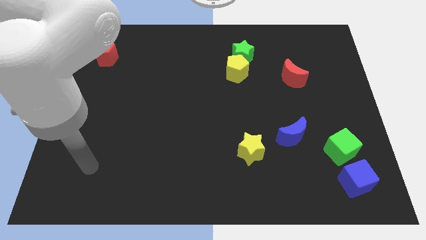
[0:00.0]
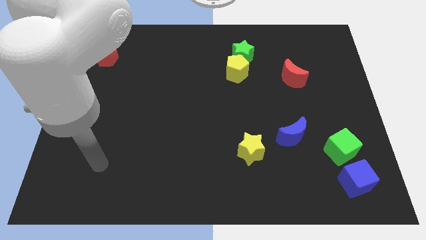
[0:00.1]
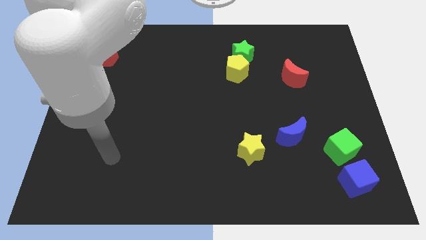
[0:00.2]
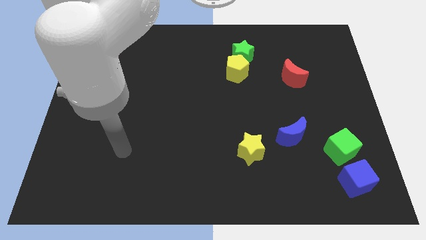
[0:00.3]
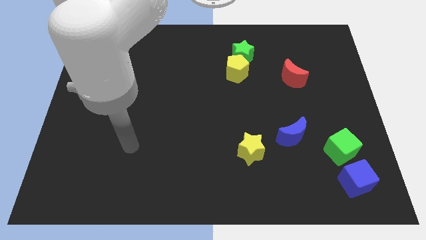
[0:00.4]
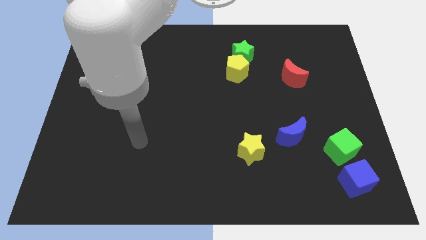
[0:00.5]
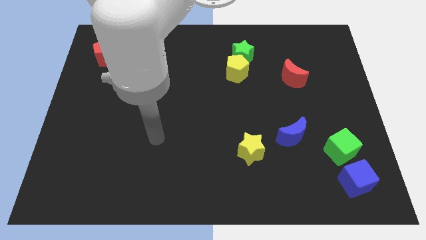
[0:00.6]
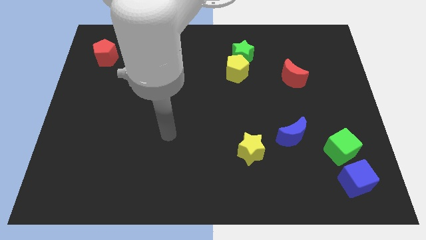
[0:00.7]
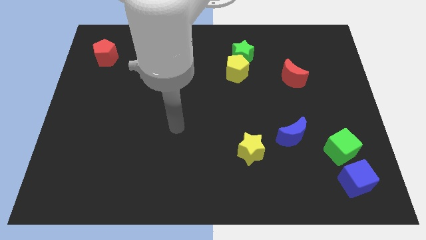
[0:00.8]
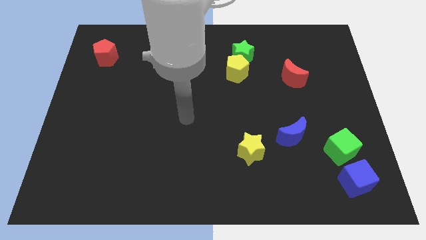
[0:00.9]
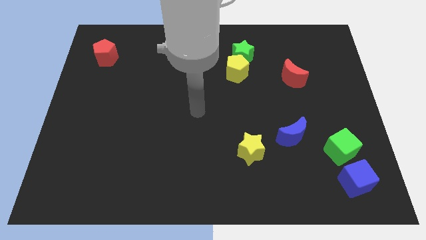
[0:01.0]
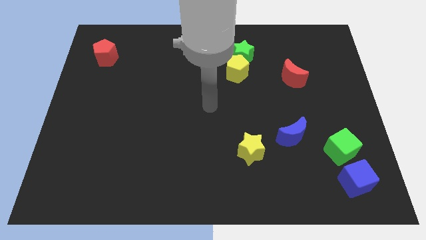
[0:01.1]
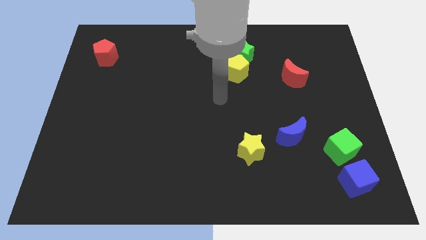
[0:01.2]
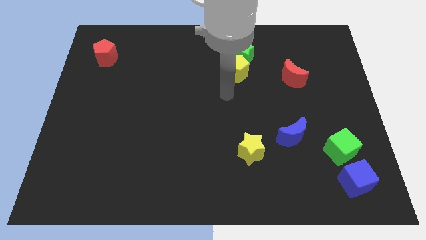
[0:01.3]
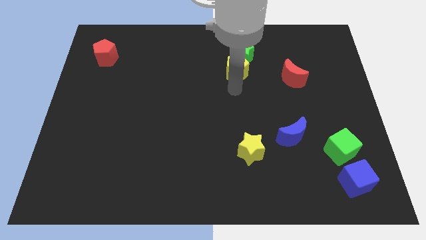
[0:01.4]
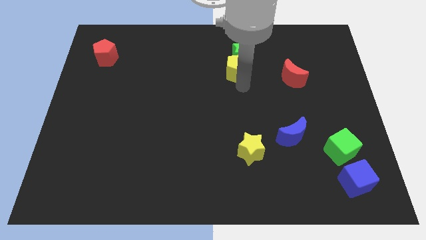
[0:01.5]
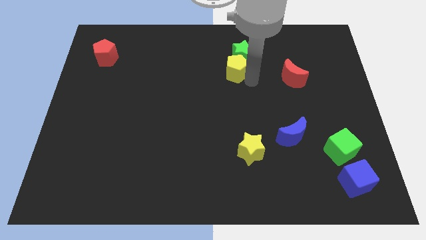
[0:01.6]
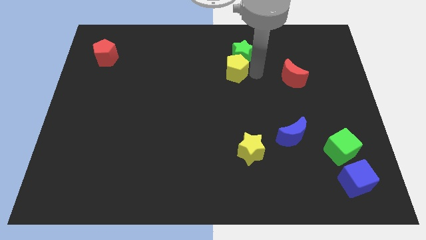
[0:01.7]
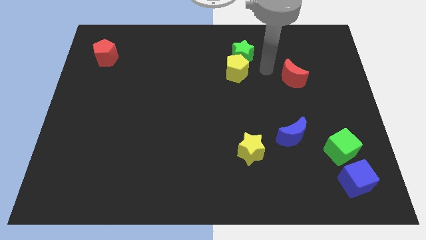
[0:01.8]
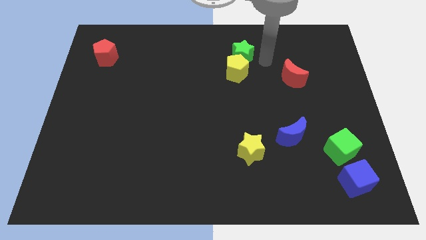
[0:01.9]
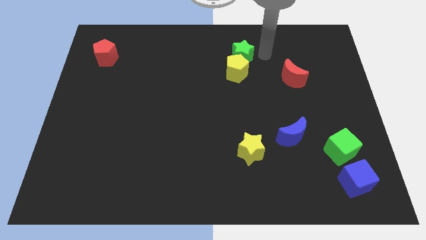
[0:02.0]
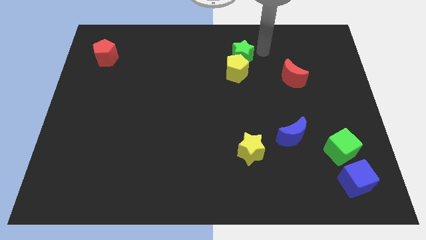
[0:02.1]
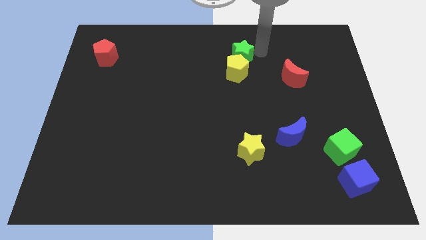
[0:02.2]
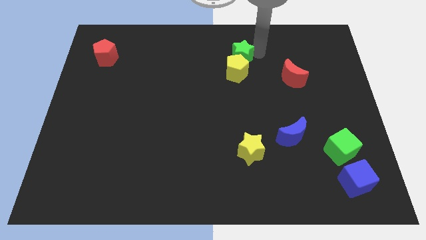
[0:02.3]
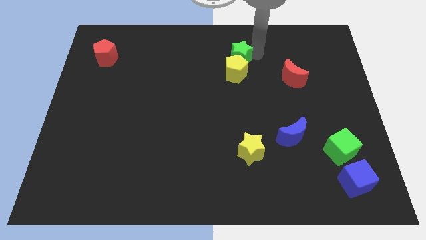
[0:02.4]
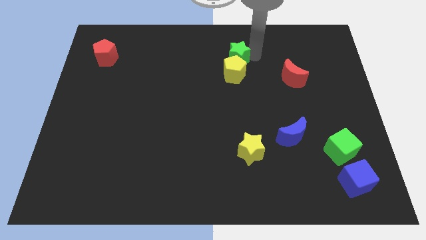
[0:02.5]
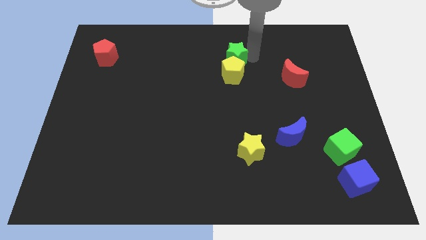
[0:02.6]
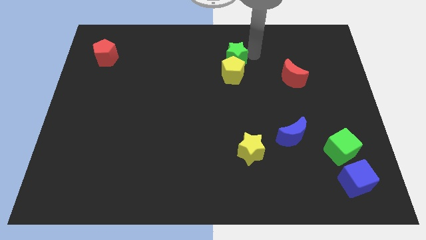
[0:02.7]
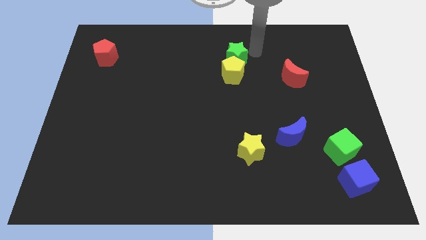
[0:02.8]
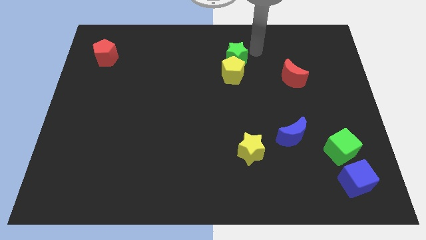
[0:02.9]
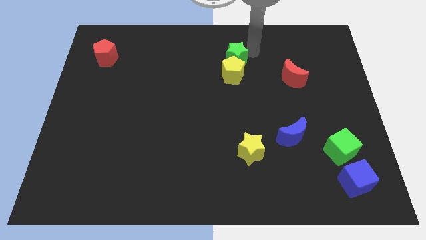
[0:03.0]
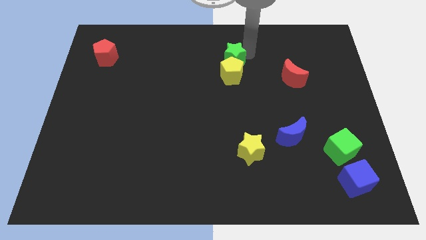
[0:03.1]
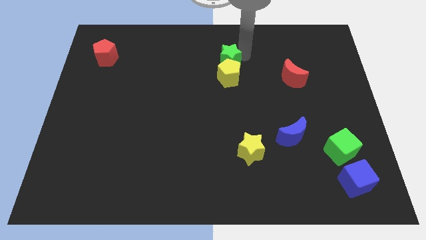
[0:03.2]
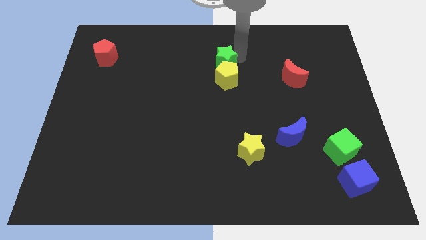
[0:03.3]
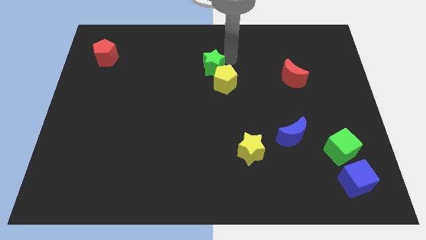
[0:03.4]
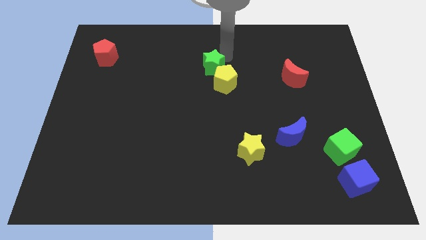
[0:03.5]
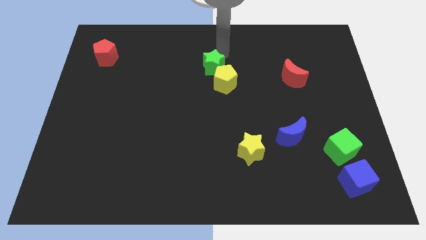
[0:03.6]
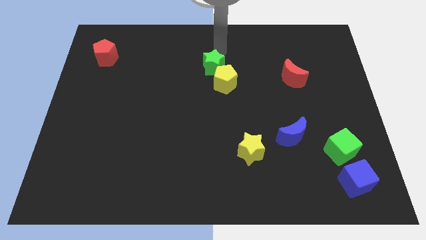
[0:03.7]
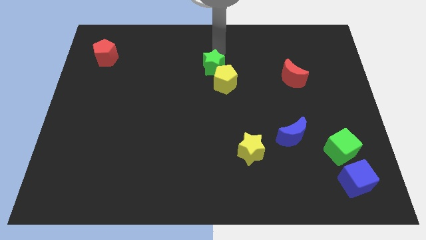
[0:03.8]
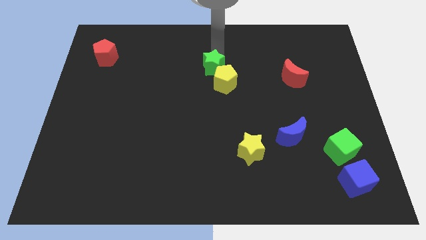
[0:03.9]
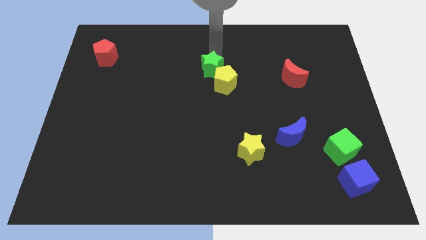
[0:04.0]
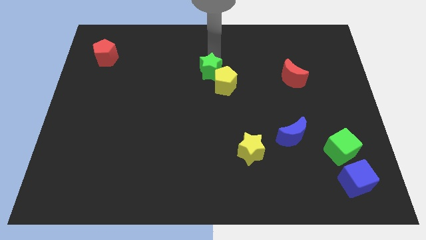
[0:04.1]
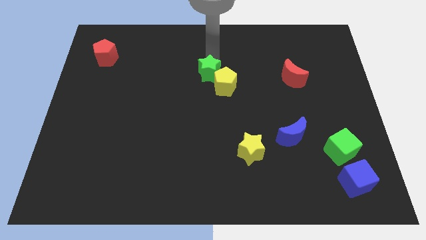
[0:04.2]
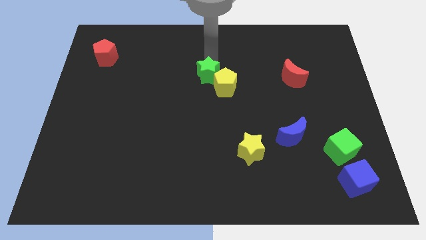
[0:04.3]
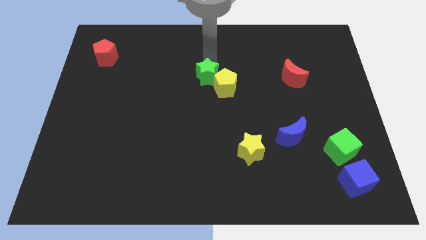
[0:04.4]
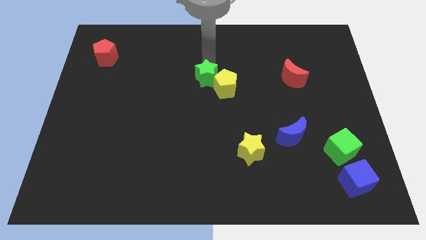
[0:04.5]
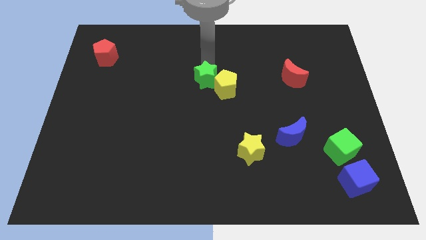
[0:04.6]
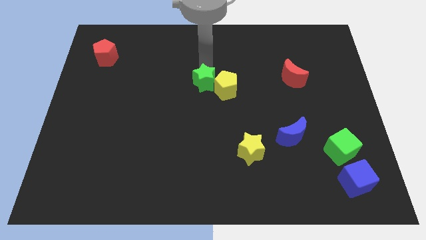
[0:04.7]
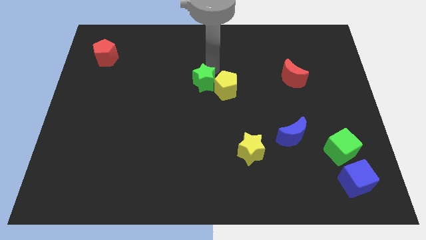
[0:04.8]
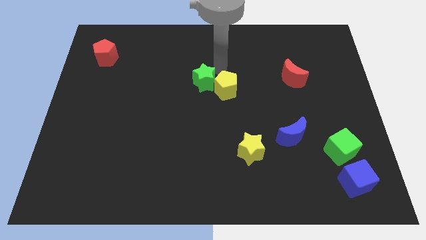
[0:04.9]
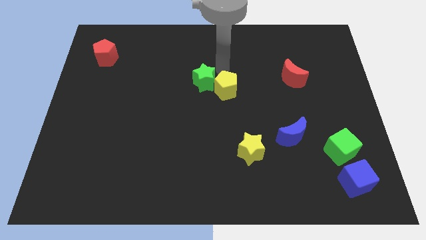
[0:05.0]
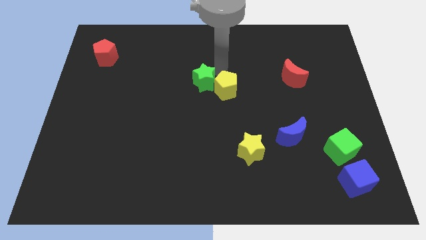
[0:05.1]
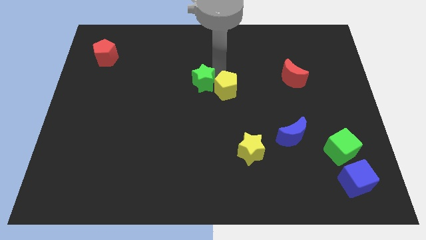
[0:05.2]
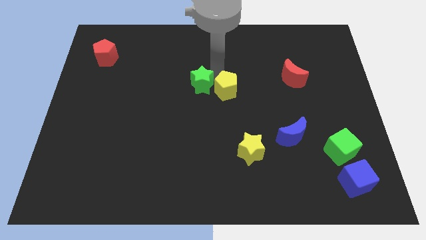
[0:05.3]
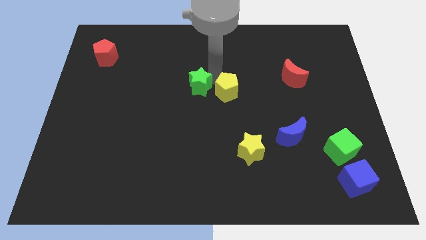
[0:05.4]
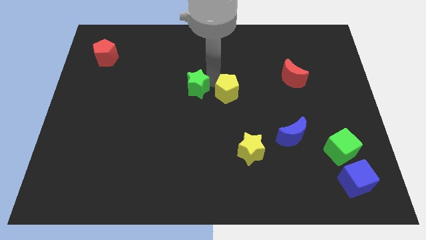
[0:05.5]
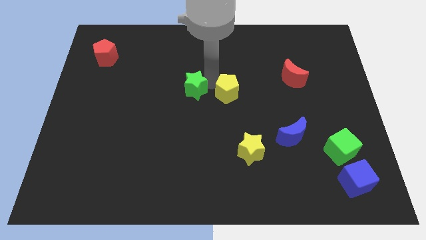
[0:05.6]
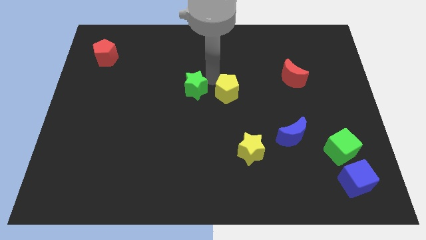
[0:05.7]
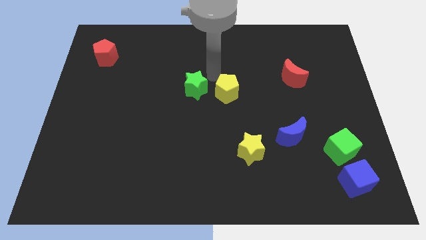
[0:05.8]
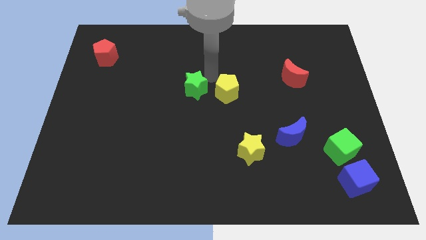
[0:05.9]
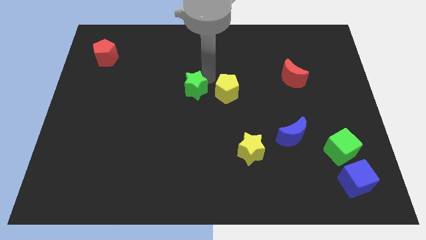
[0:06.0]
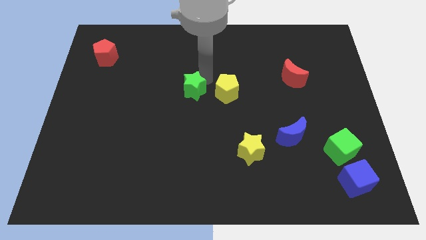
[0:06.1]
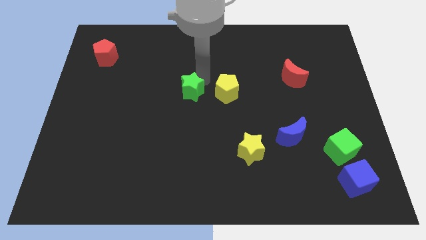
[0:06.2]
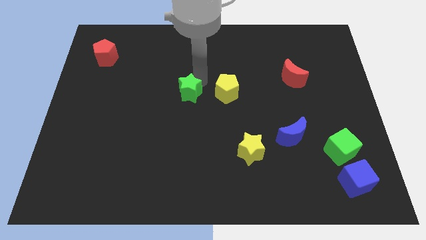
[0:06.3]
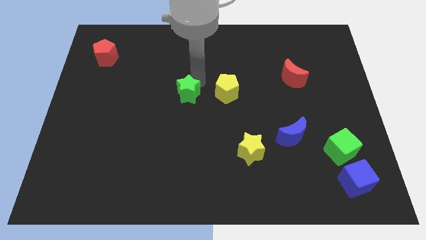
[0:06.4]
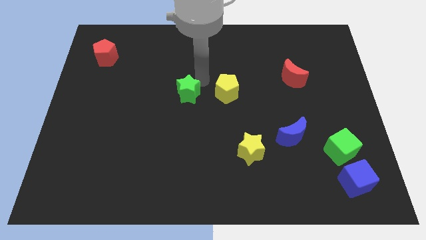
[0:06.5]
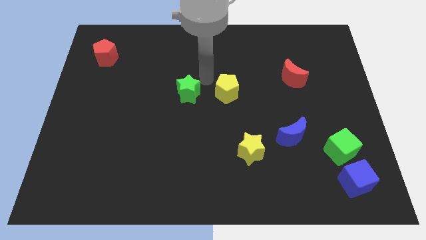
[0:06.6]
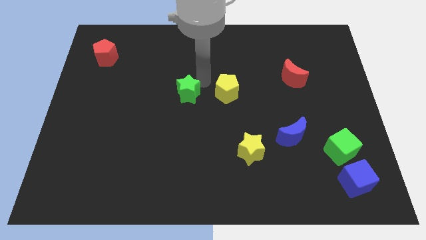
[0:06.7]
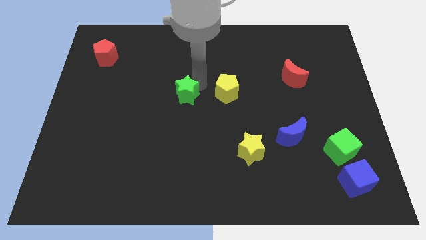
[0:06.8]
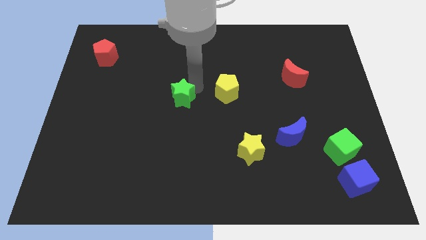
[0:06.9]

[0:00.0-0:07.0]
slide the green star down and left

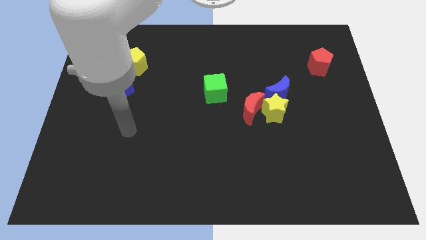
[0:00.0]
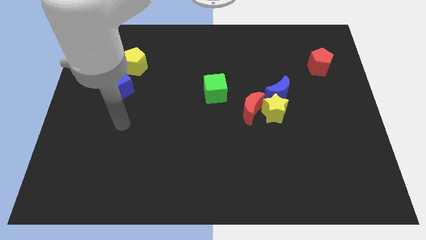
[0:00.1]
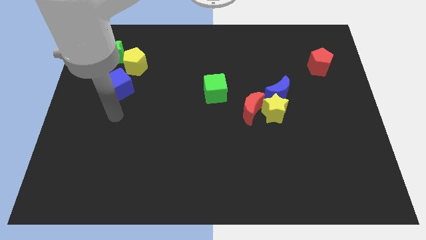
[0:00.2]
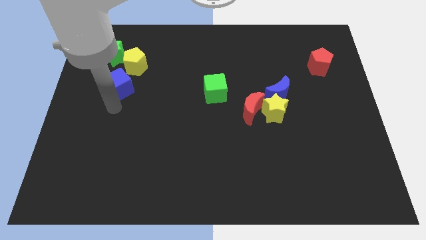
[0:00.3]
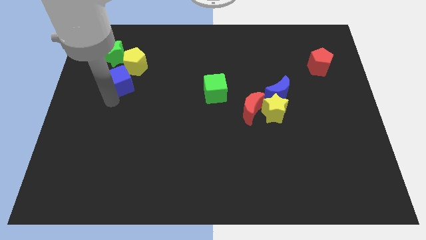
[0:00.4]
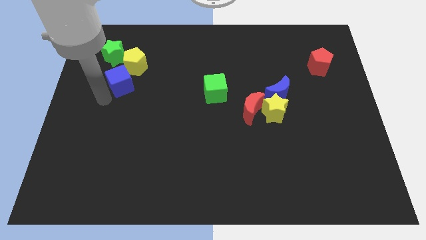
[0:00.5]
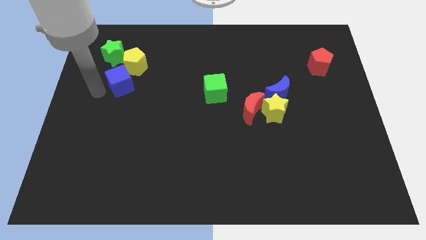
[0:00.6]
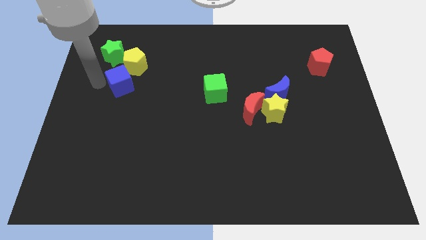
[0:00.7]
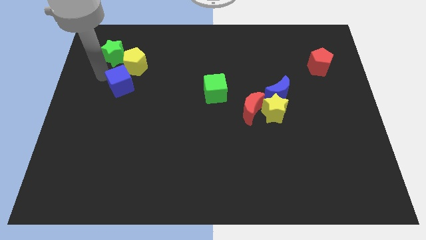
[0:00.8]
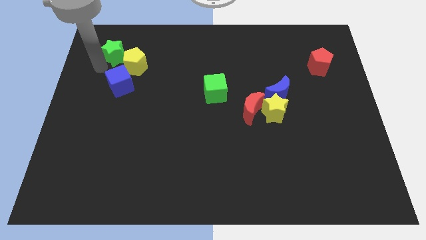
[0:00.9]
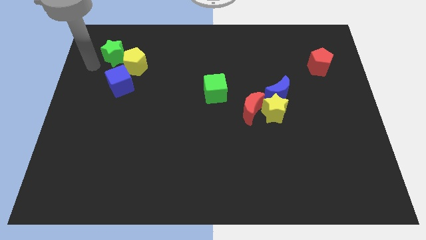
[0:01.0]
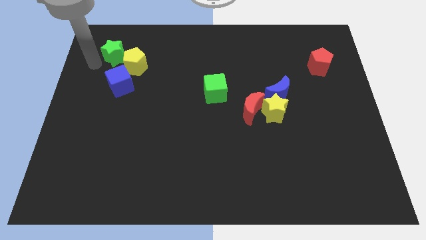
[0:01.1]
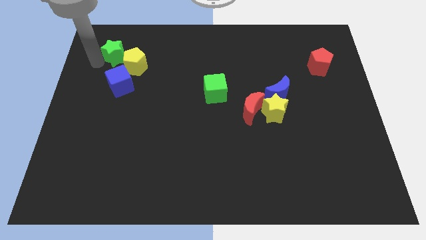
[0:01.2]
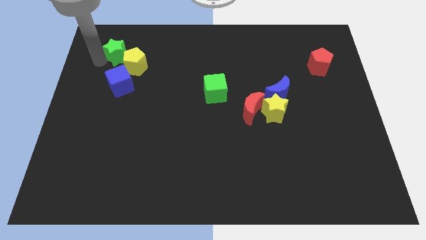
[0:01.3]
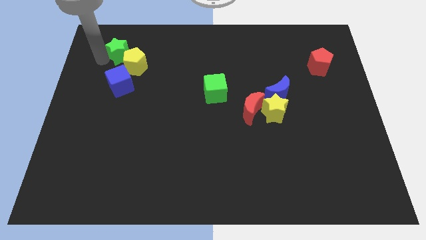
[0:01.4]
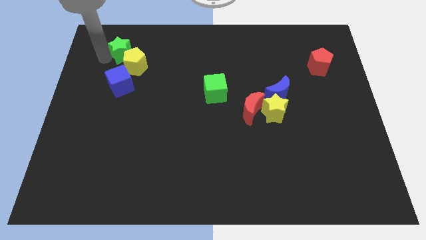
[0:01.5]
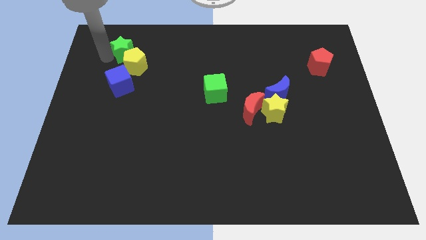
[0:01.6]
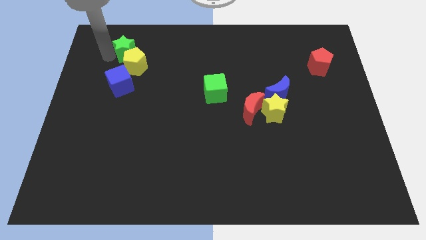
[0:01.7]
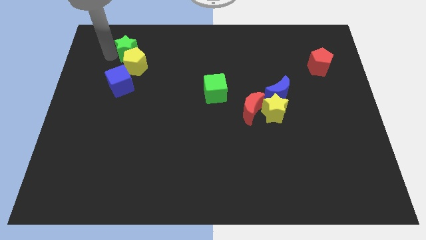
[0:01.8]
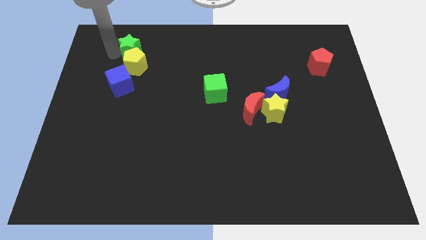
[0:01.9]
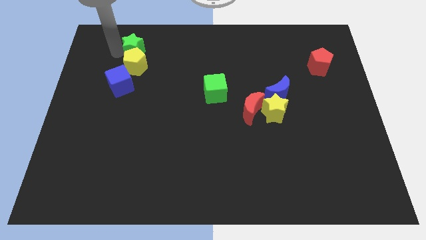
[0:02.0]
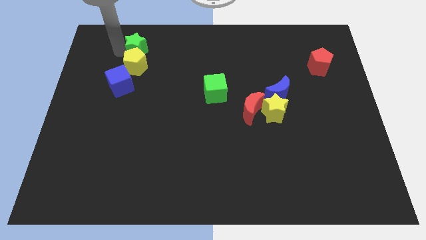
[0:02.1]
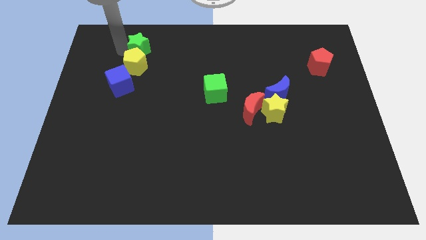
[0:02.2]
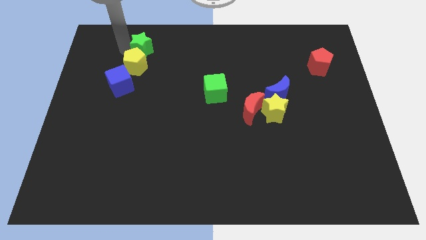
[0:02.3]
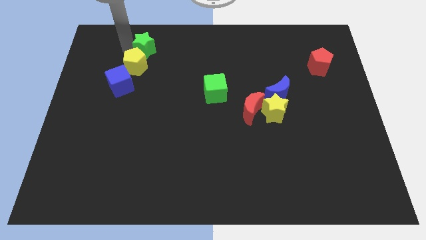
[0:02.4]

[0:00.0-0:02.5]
slide the green star right somewhat
